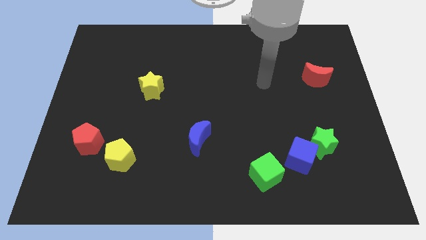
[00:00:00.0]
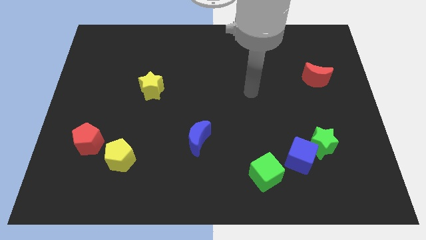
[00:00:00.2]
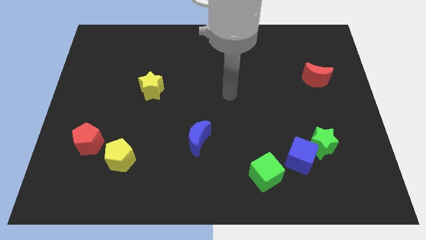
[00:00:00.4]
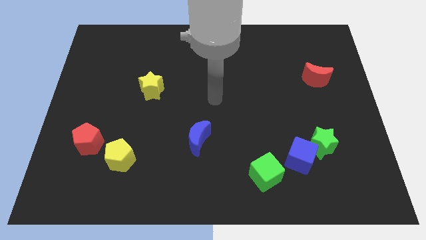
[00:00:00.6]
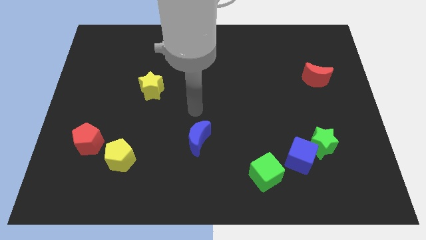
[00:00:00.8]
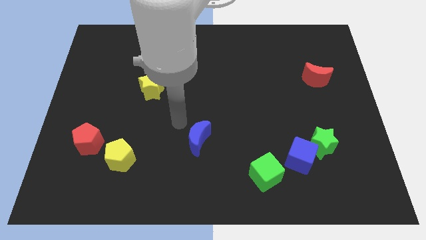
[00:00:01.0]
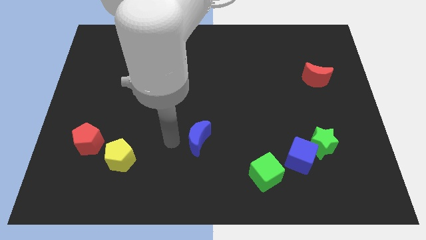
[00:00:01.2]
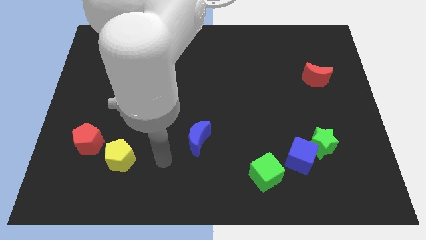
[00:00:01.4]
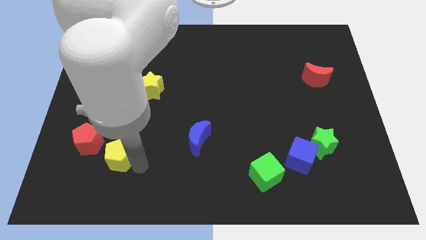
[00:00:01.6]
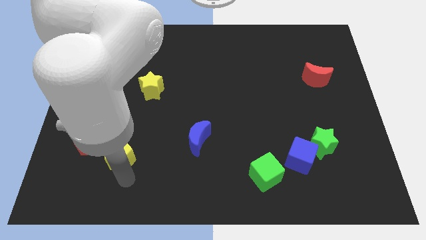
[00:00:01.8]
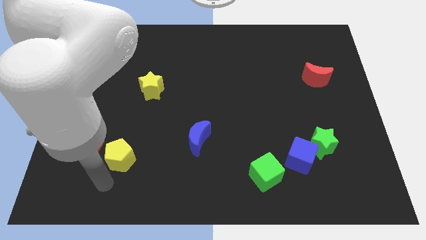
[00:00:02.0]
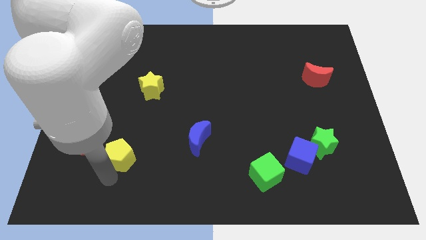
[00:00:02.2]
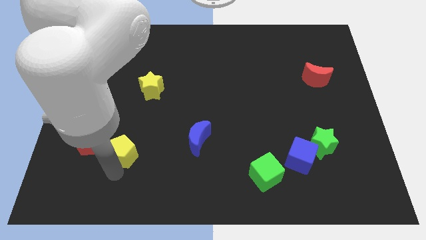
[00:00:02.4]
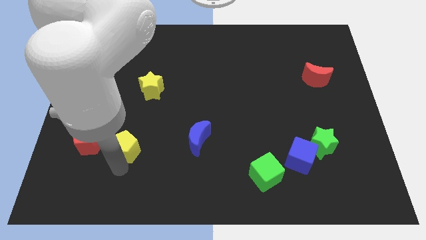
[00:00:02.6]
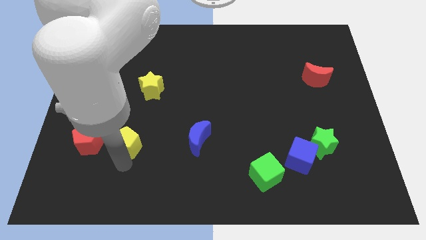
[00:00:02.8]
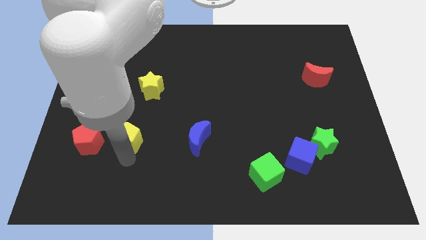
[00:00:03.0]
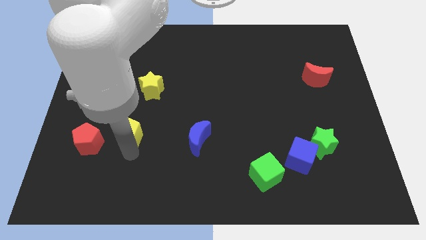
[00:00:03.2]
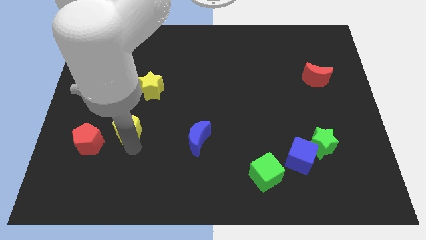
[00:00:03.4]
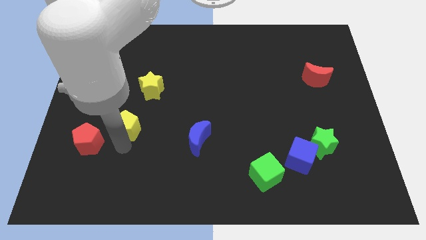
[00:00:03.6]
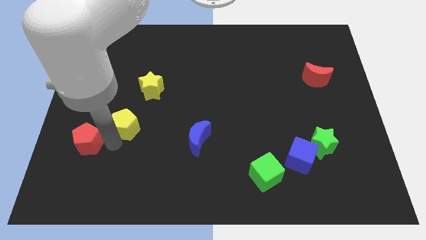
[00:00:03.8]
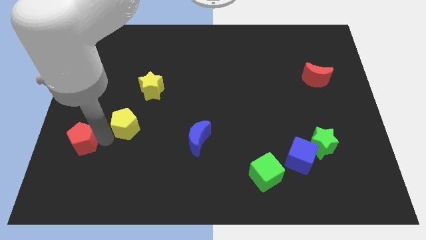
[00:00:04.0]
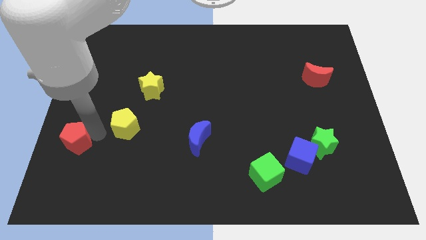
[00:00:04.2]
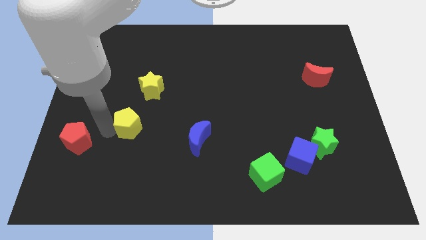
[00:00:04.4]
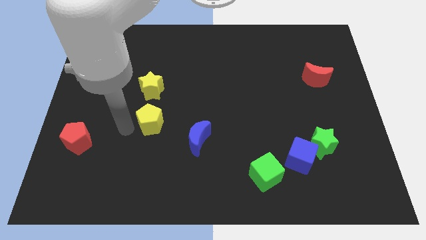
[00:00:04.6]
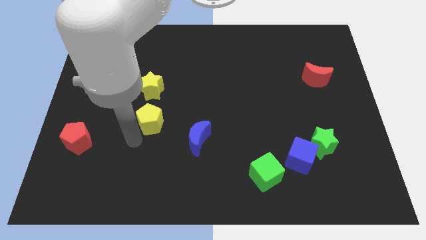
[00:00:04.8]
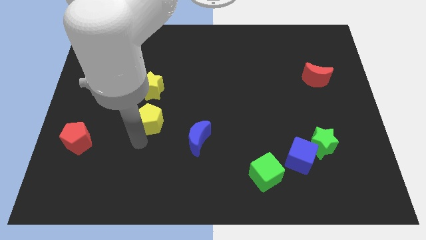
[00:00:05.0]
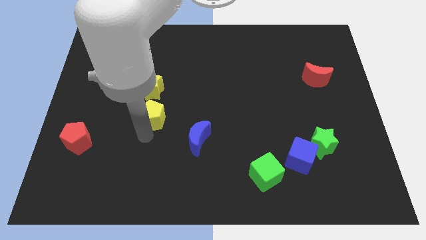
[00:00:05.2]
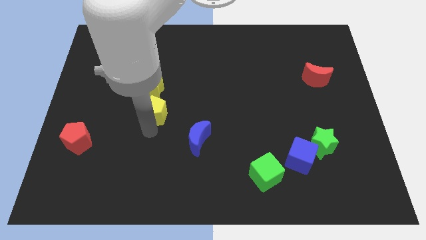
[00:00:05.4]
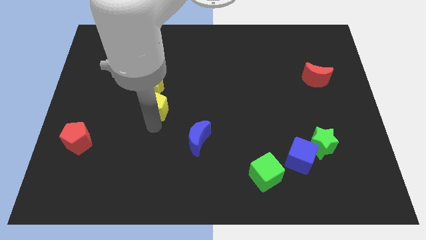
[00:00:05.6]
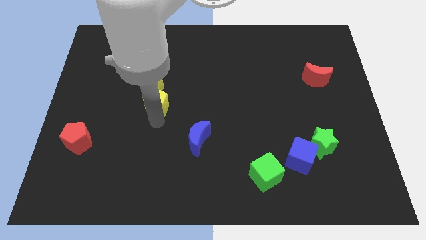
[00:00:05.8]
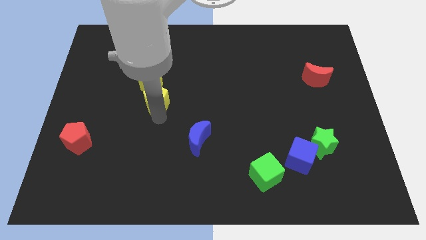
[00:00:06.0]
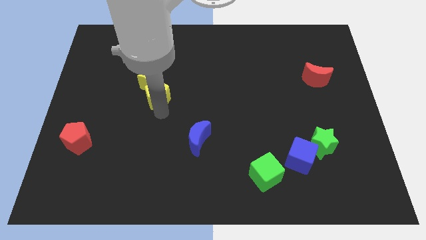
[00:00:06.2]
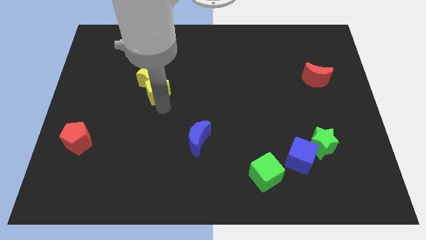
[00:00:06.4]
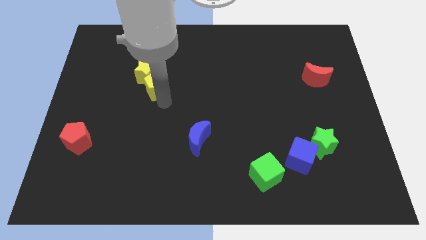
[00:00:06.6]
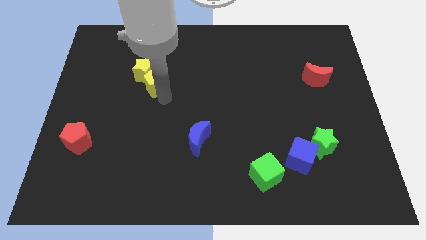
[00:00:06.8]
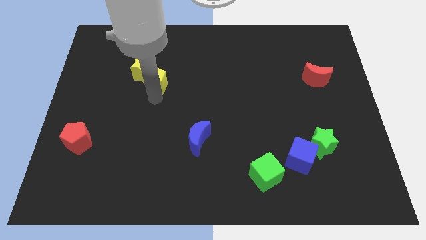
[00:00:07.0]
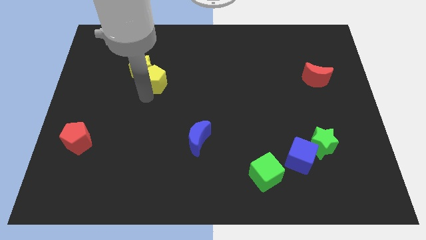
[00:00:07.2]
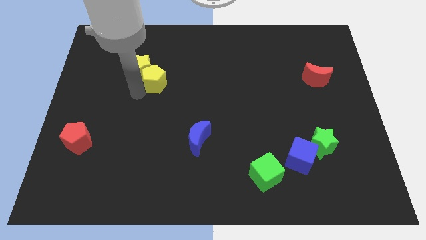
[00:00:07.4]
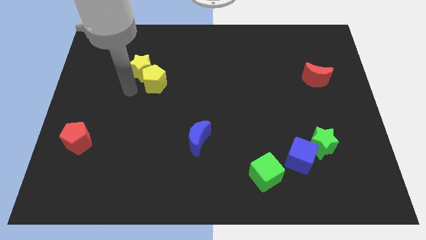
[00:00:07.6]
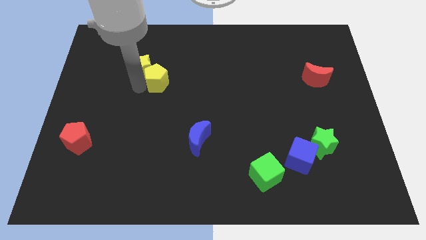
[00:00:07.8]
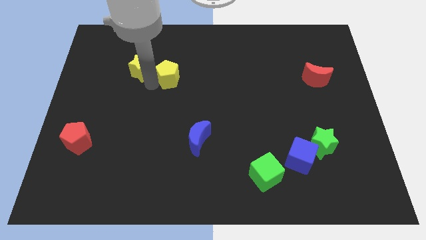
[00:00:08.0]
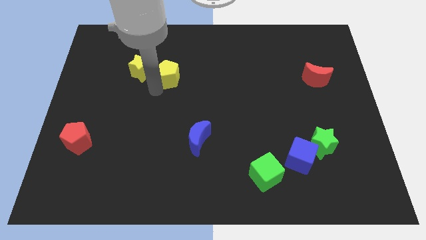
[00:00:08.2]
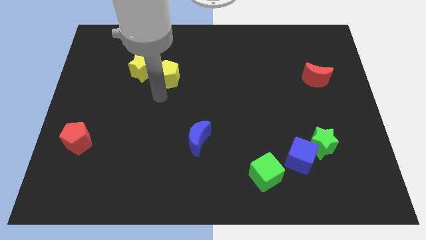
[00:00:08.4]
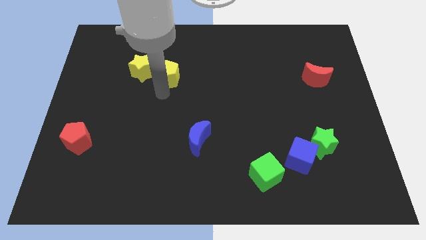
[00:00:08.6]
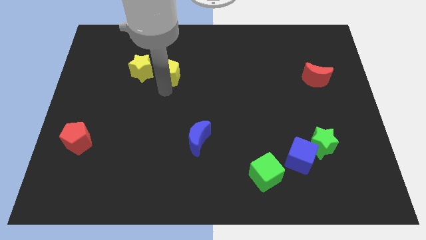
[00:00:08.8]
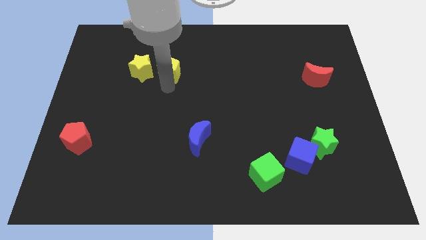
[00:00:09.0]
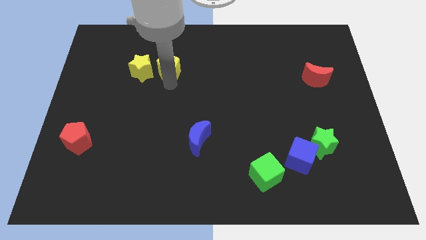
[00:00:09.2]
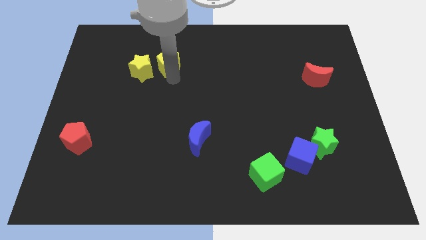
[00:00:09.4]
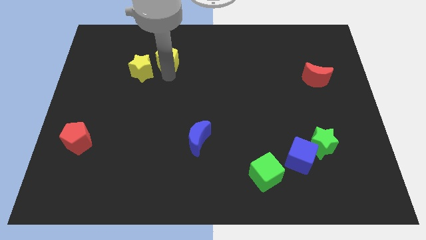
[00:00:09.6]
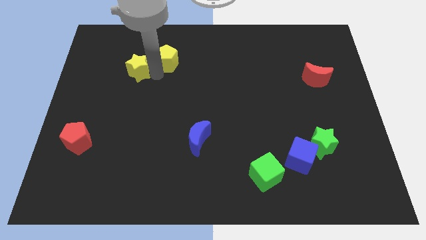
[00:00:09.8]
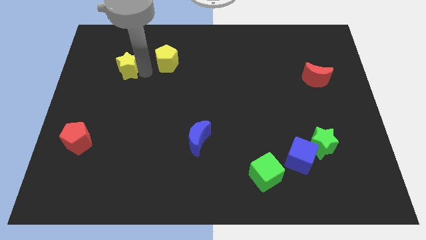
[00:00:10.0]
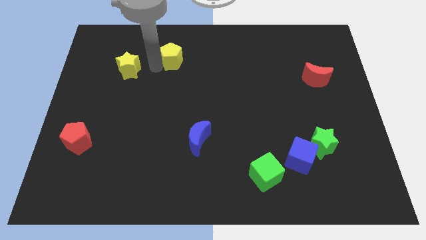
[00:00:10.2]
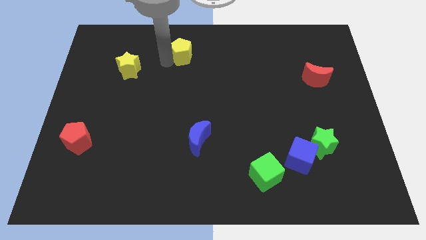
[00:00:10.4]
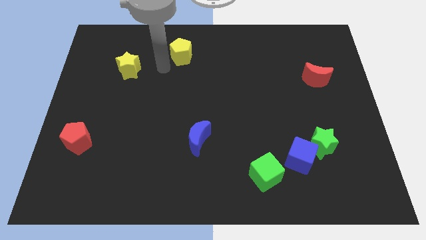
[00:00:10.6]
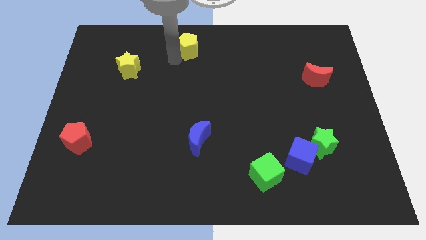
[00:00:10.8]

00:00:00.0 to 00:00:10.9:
move the yellow pentagon to the top side

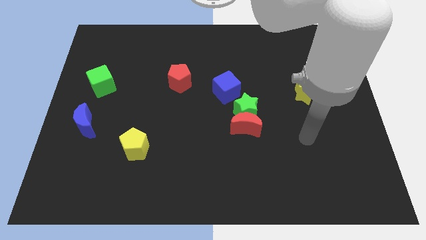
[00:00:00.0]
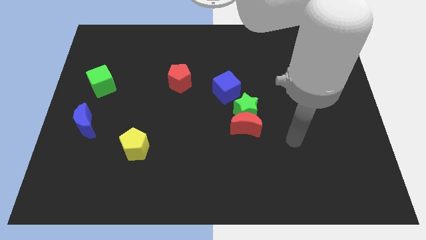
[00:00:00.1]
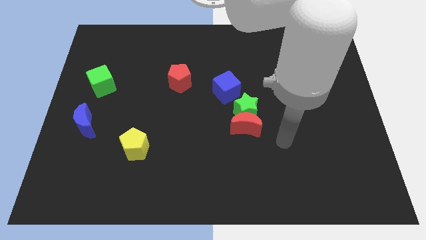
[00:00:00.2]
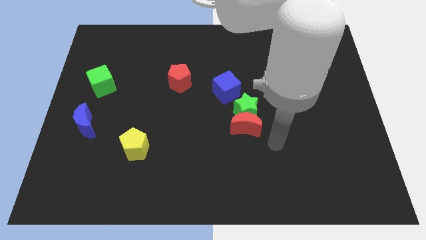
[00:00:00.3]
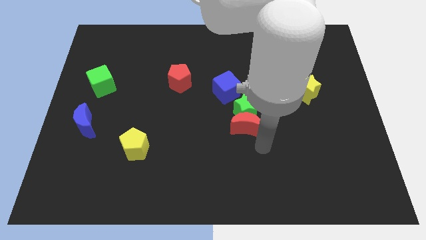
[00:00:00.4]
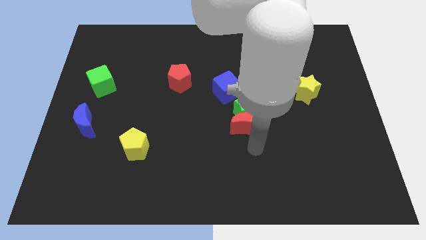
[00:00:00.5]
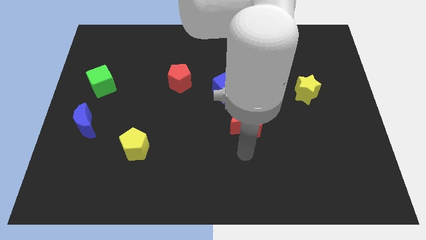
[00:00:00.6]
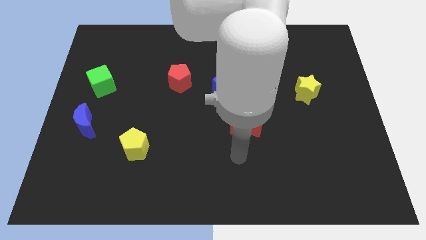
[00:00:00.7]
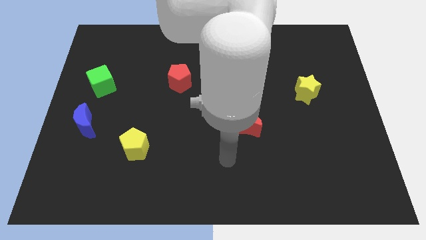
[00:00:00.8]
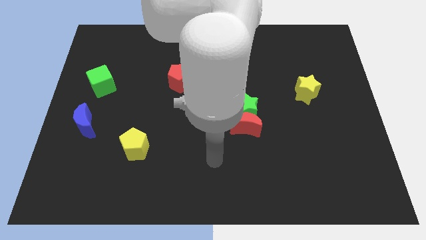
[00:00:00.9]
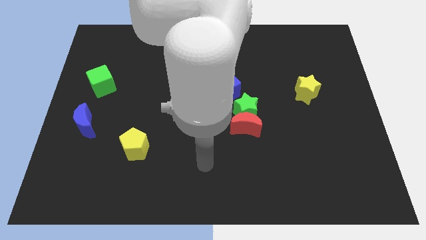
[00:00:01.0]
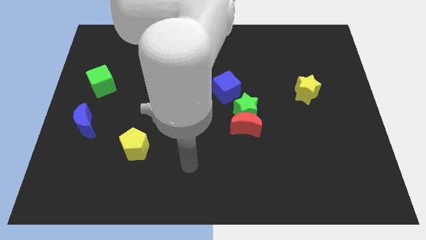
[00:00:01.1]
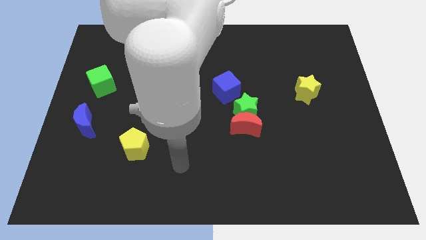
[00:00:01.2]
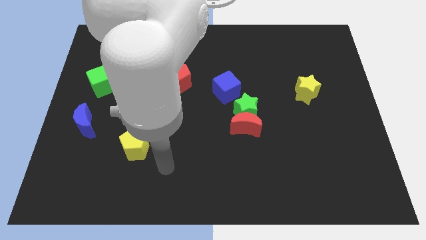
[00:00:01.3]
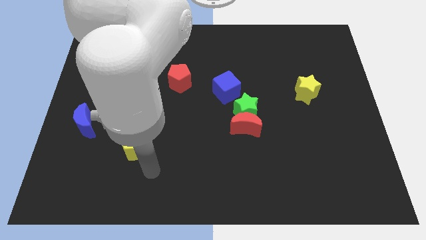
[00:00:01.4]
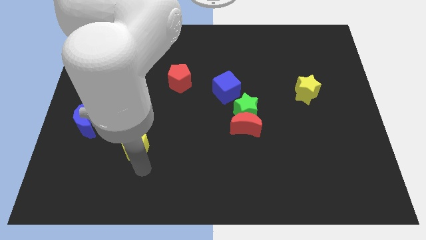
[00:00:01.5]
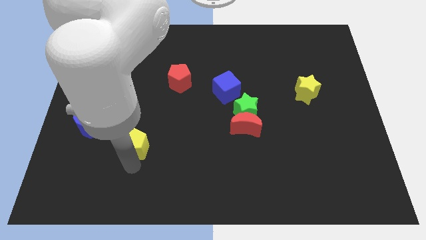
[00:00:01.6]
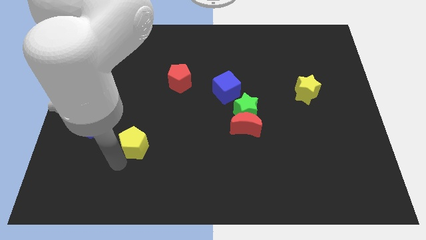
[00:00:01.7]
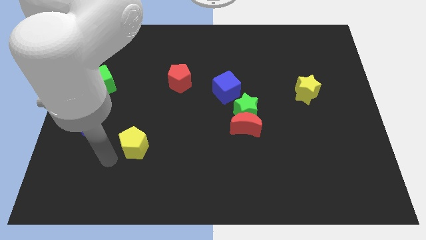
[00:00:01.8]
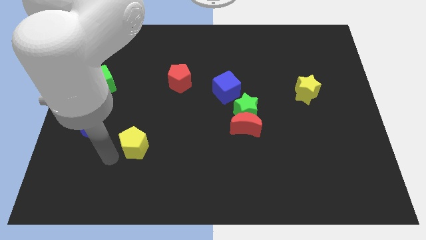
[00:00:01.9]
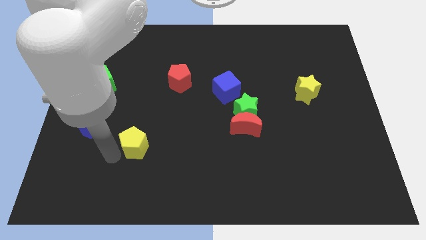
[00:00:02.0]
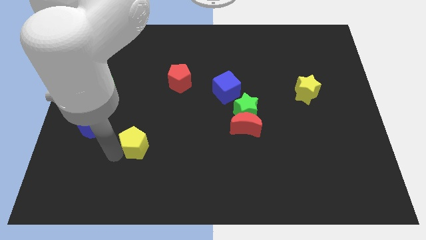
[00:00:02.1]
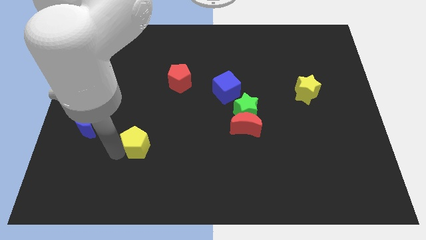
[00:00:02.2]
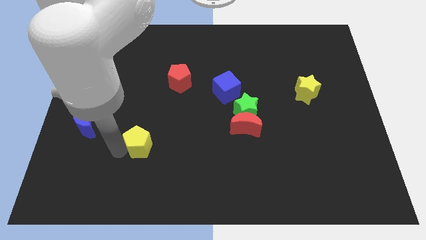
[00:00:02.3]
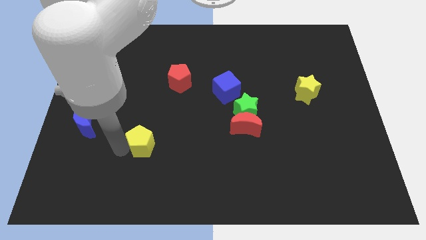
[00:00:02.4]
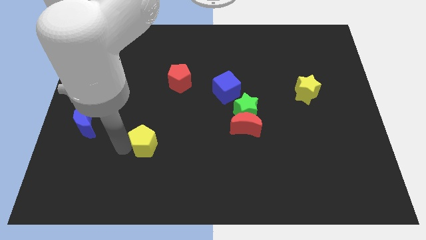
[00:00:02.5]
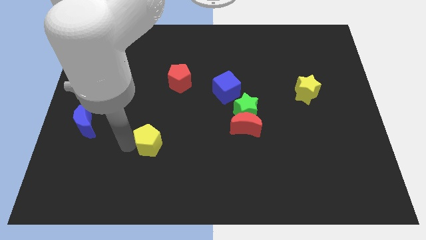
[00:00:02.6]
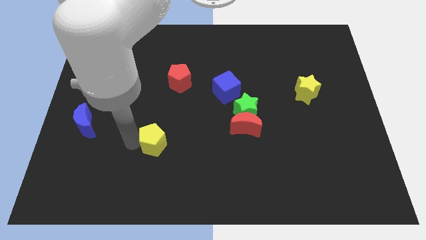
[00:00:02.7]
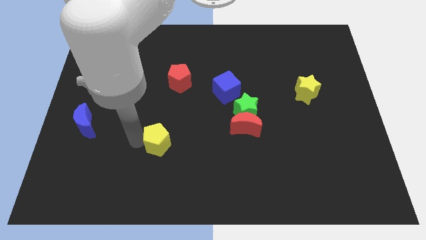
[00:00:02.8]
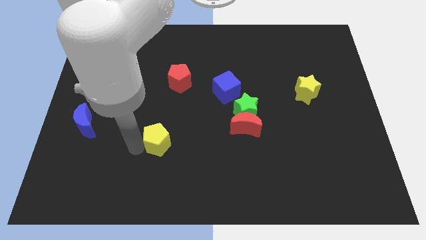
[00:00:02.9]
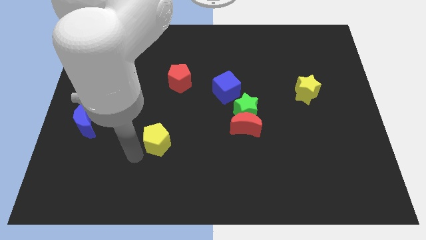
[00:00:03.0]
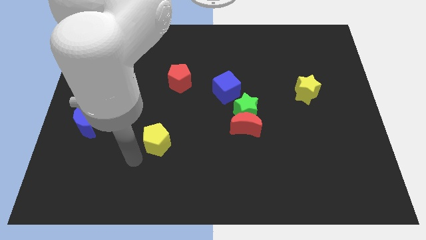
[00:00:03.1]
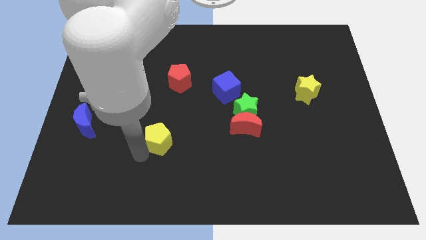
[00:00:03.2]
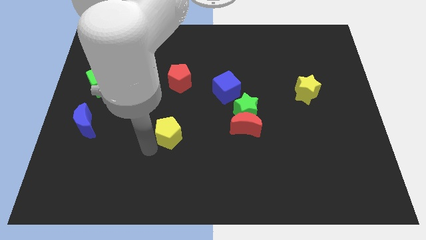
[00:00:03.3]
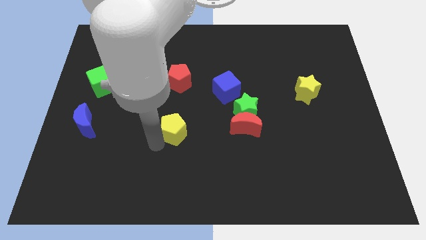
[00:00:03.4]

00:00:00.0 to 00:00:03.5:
move the yellow pentagon to the middle
